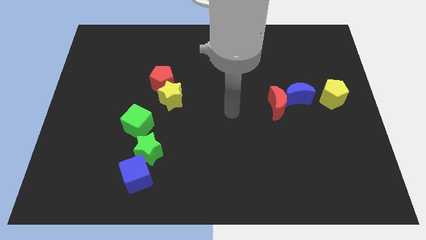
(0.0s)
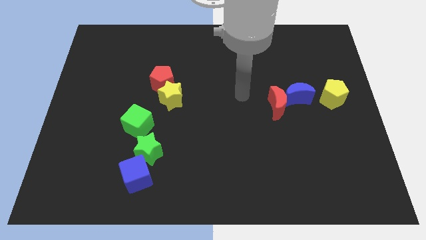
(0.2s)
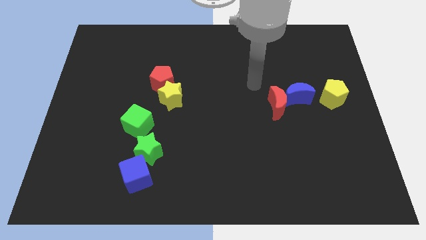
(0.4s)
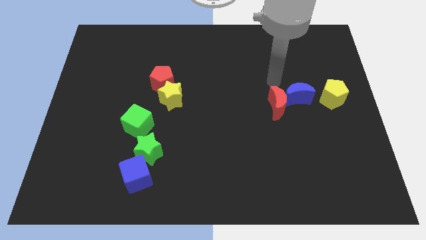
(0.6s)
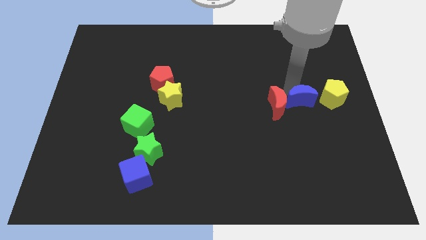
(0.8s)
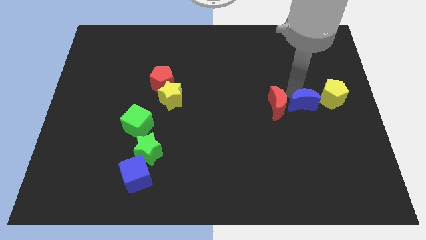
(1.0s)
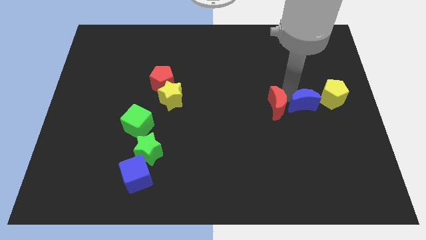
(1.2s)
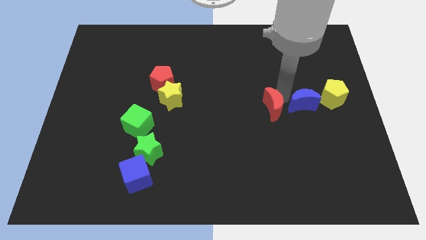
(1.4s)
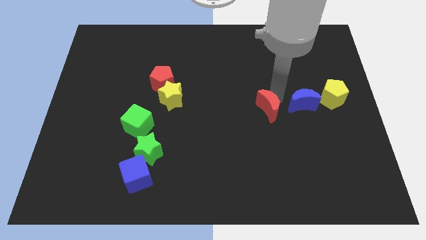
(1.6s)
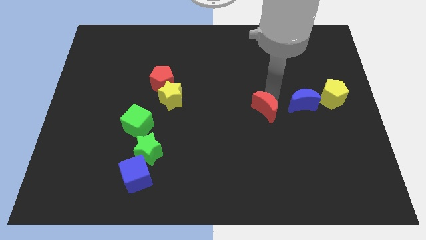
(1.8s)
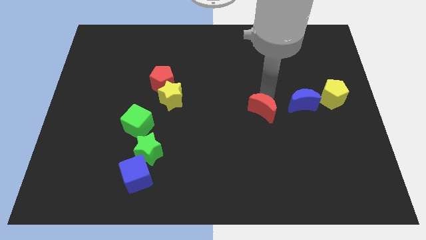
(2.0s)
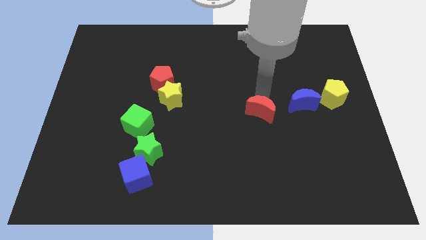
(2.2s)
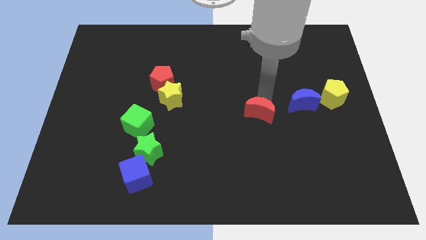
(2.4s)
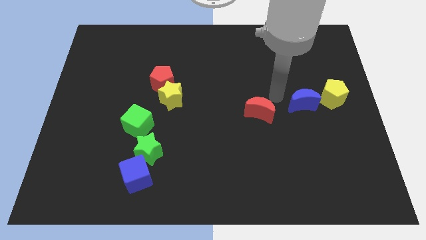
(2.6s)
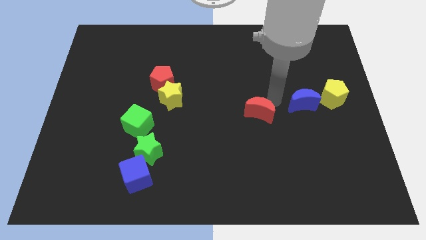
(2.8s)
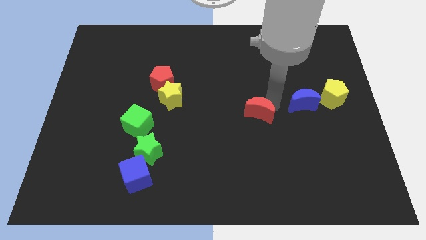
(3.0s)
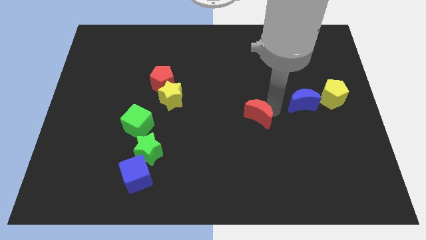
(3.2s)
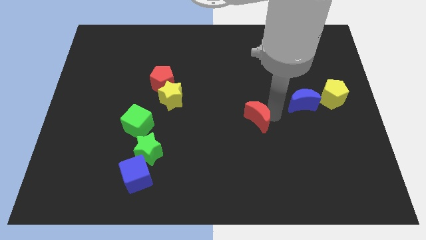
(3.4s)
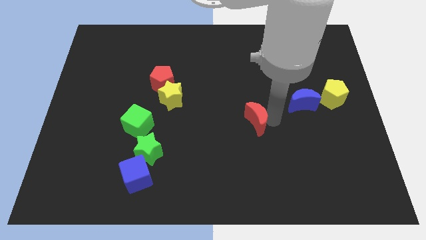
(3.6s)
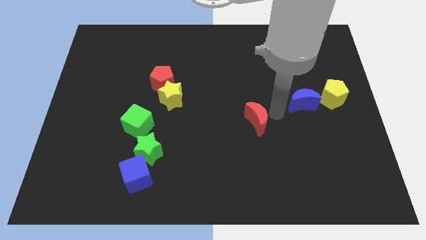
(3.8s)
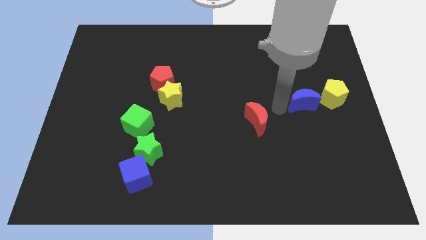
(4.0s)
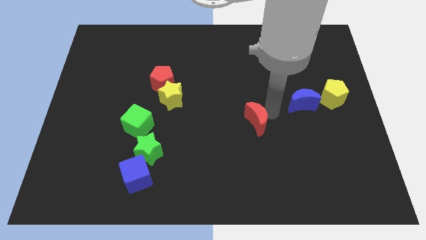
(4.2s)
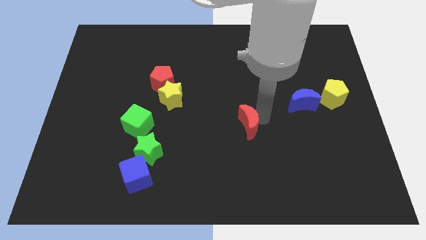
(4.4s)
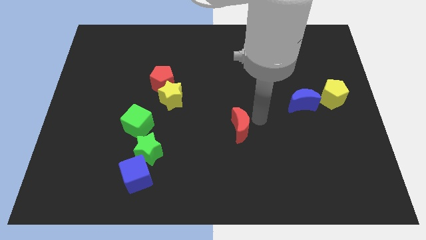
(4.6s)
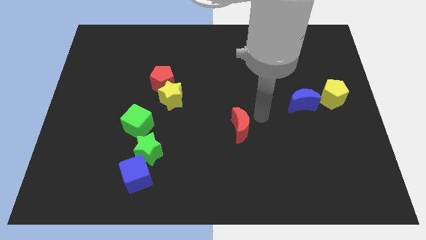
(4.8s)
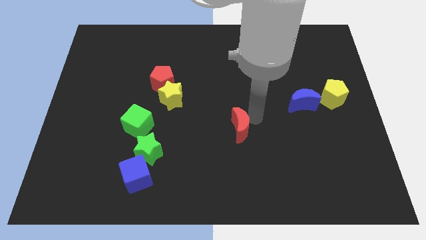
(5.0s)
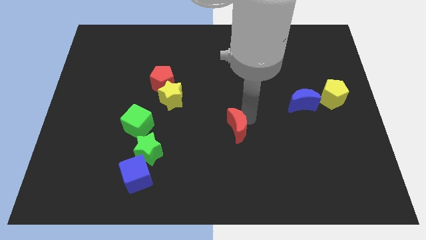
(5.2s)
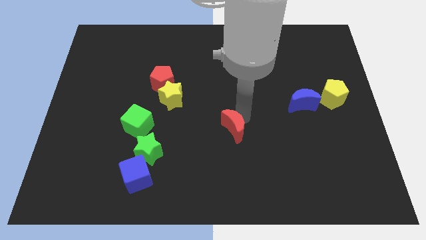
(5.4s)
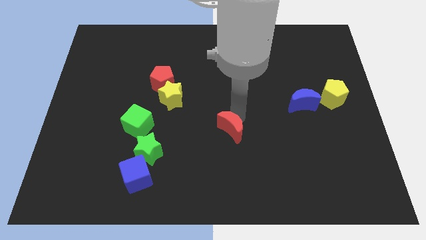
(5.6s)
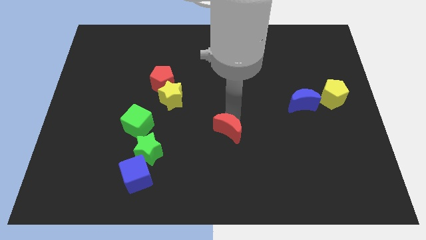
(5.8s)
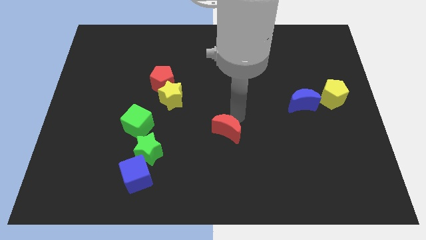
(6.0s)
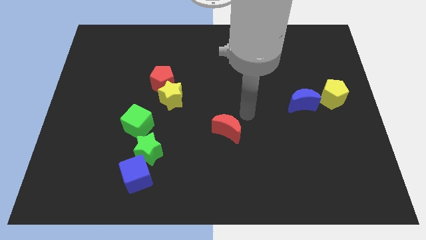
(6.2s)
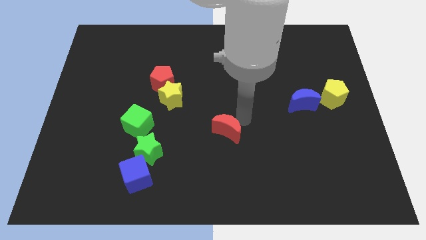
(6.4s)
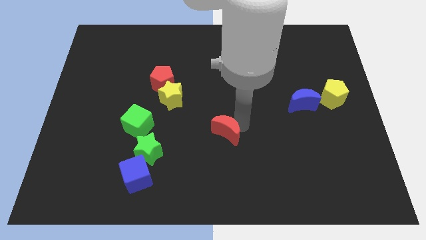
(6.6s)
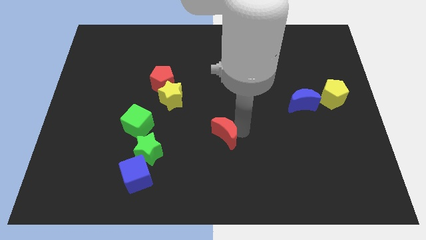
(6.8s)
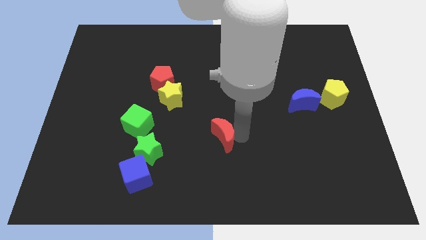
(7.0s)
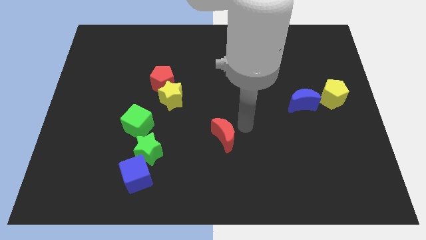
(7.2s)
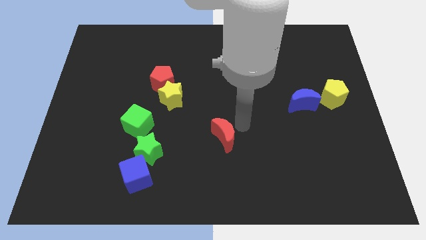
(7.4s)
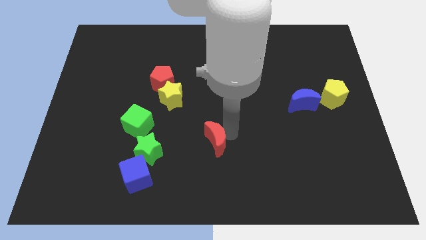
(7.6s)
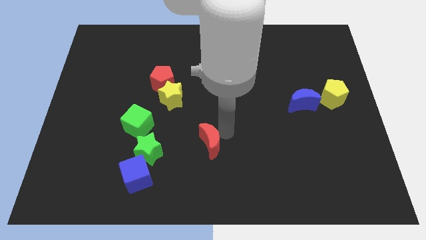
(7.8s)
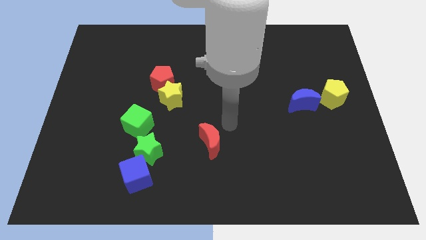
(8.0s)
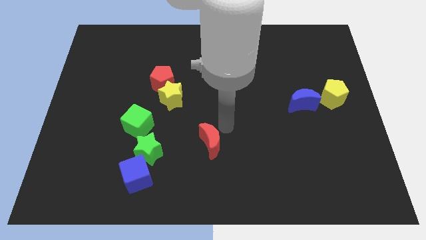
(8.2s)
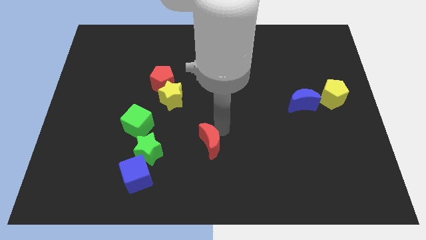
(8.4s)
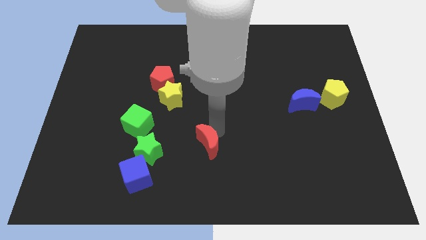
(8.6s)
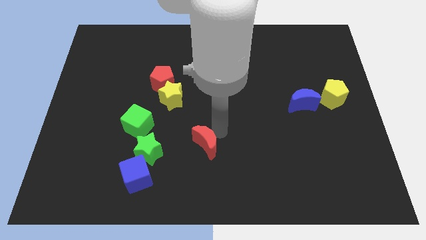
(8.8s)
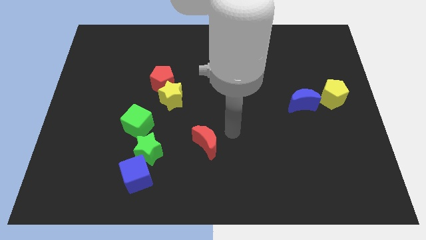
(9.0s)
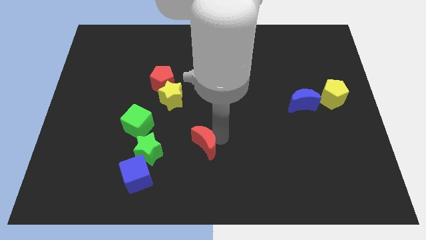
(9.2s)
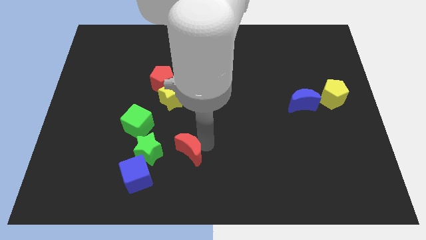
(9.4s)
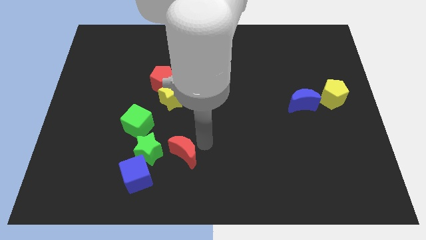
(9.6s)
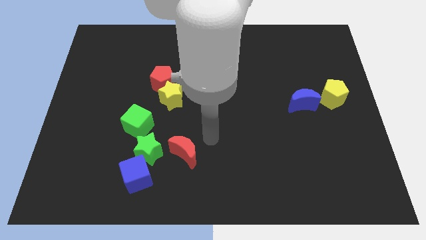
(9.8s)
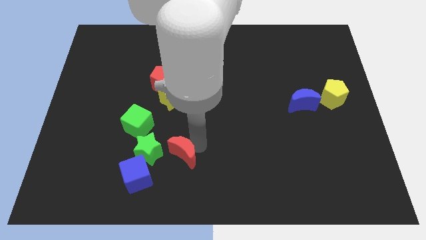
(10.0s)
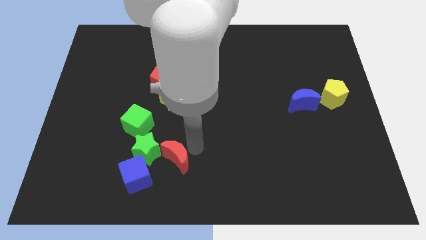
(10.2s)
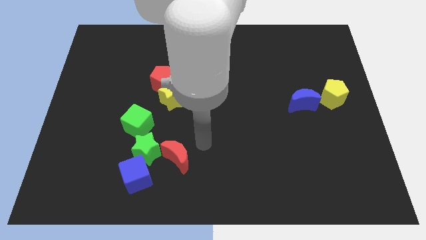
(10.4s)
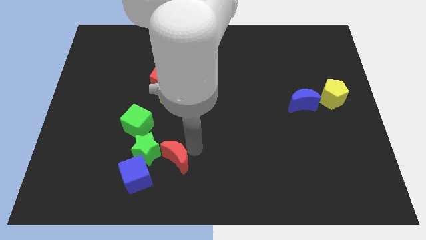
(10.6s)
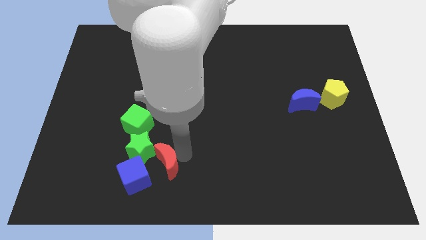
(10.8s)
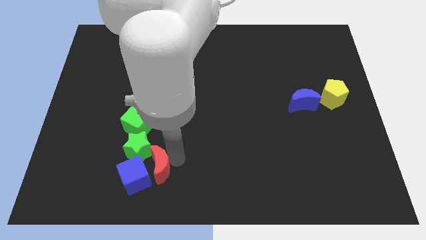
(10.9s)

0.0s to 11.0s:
put the red moon towards the blue cube

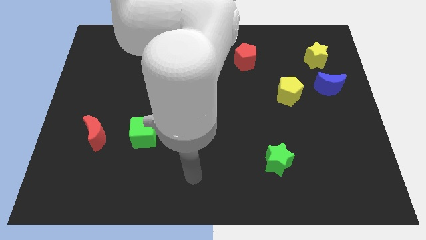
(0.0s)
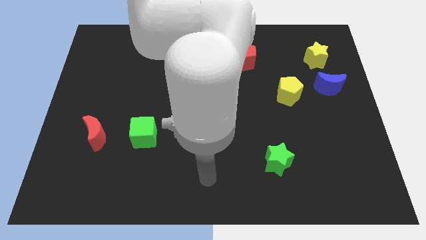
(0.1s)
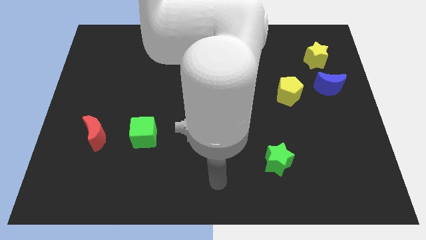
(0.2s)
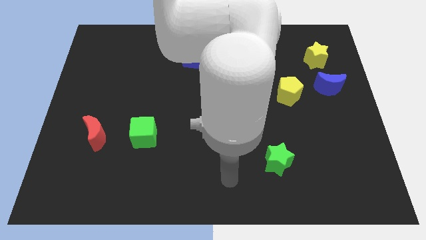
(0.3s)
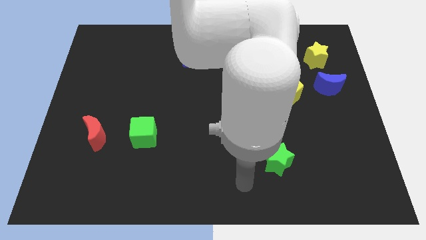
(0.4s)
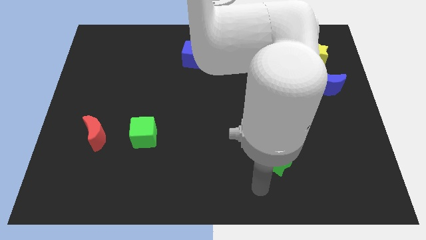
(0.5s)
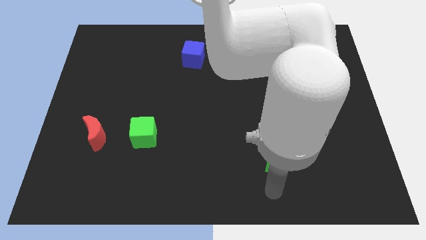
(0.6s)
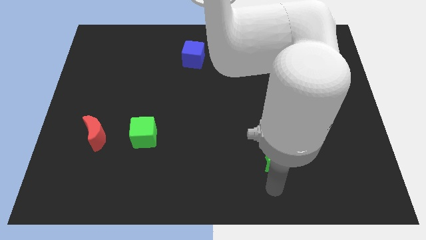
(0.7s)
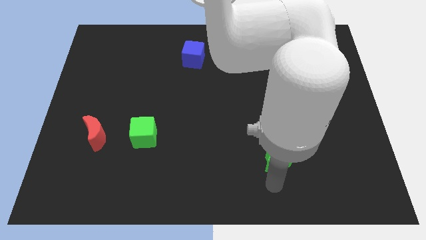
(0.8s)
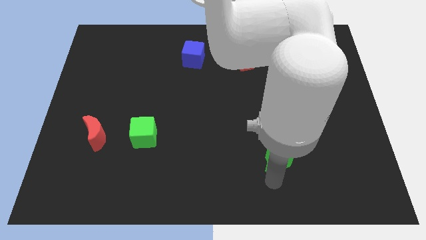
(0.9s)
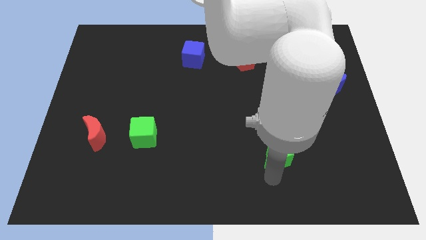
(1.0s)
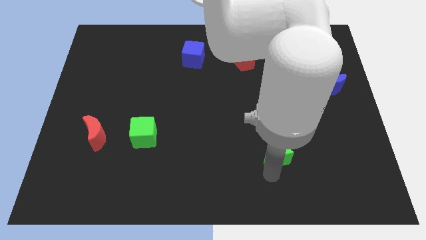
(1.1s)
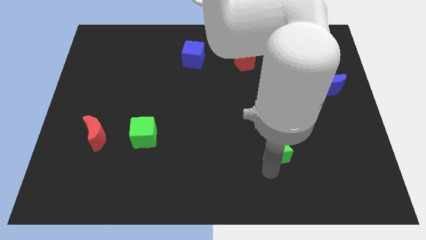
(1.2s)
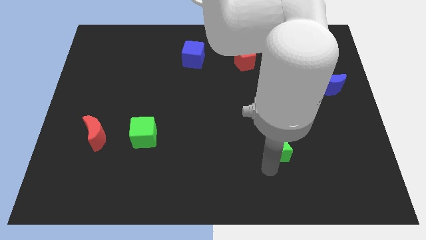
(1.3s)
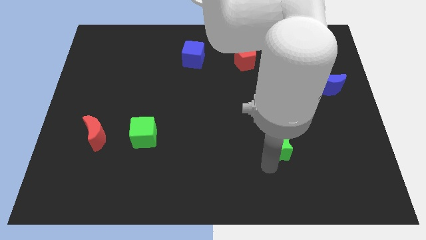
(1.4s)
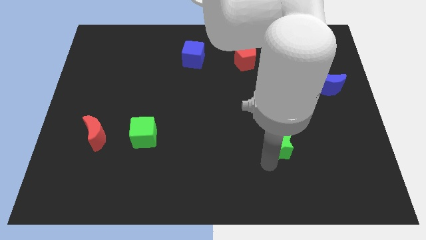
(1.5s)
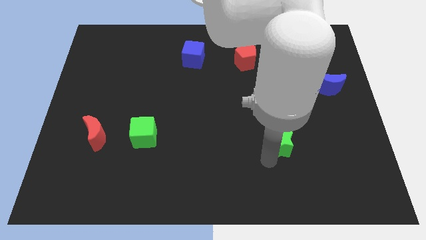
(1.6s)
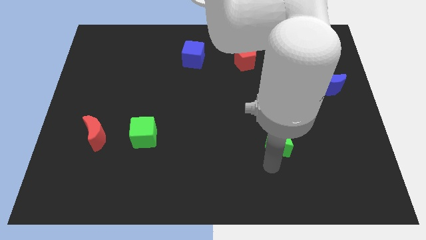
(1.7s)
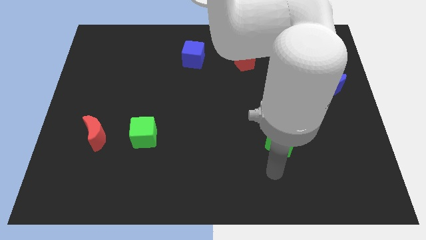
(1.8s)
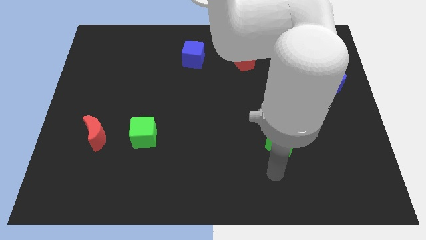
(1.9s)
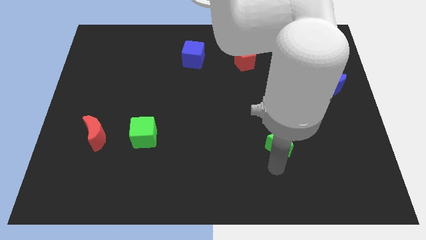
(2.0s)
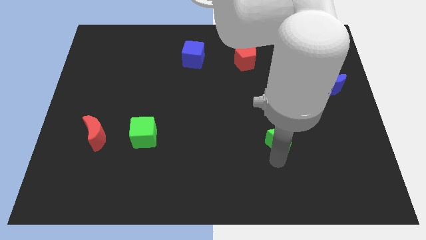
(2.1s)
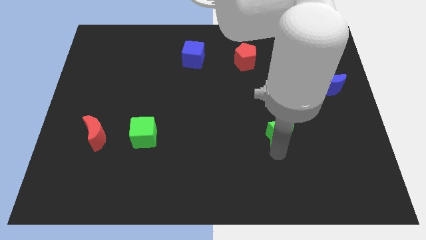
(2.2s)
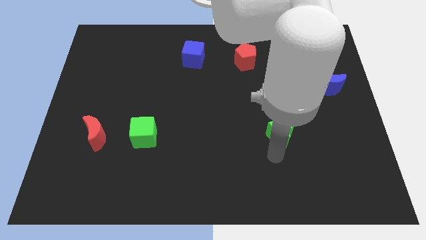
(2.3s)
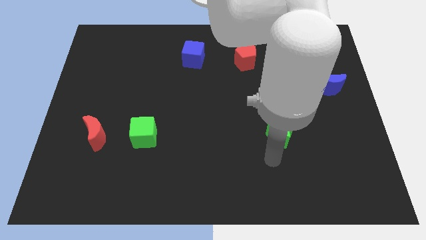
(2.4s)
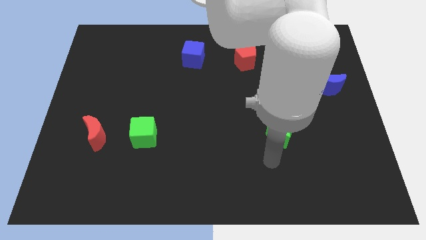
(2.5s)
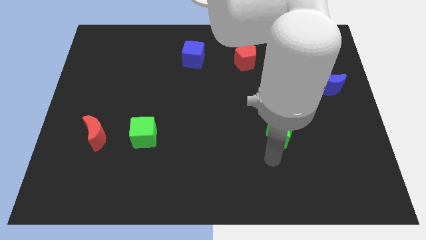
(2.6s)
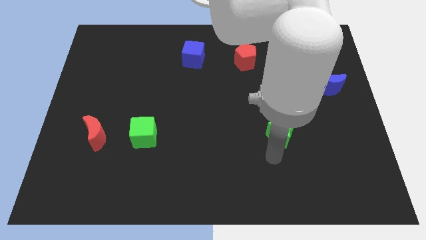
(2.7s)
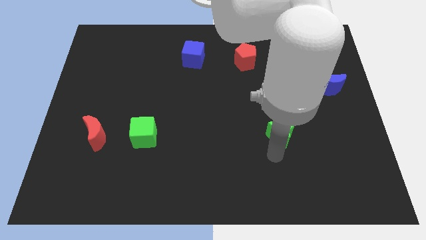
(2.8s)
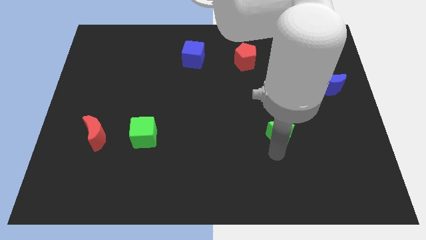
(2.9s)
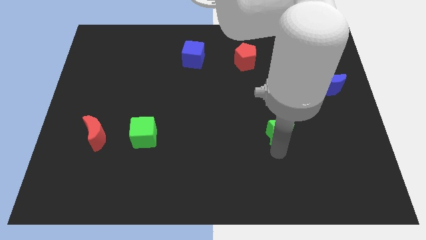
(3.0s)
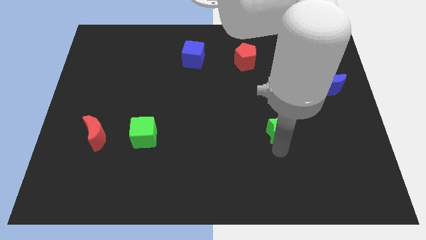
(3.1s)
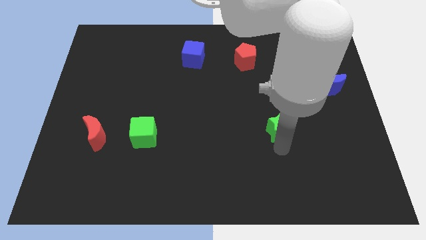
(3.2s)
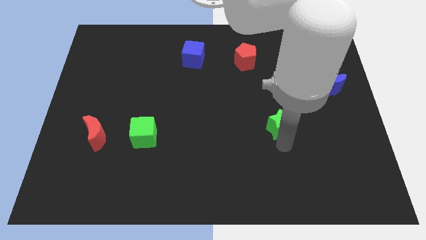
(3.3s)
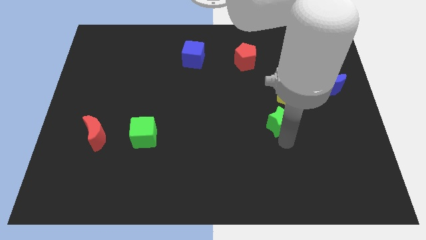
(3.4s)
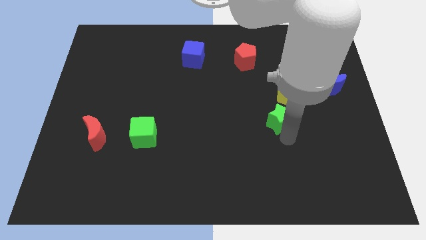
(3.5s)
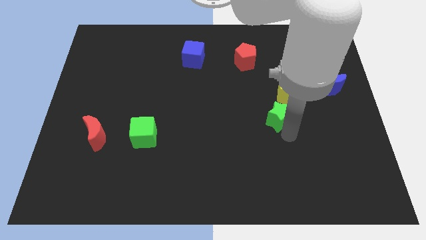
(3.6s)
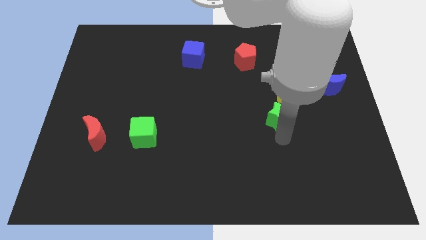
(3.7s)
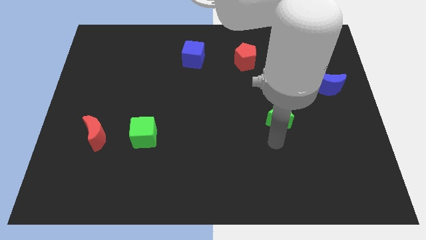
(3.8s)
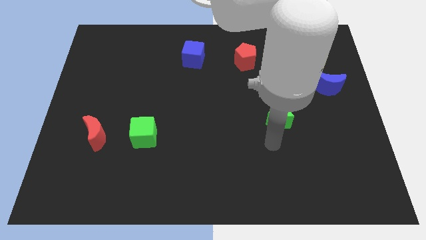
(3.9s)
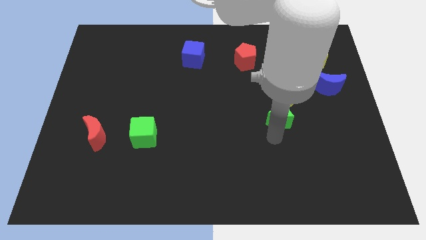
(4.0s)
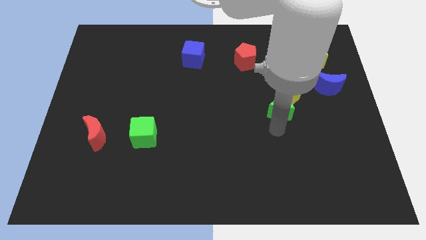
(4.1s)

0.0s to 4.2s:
slide the green star close to the yellow pentagon
